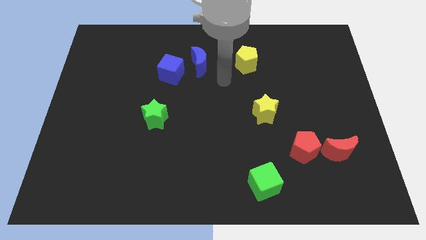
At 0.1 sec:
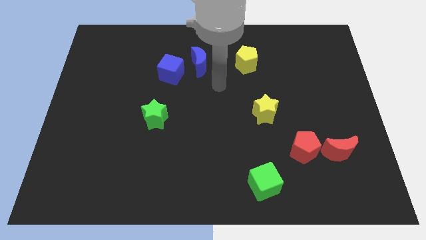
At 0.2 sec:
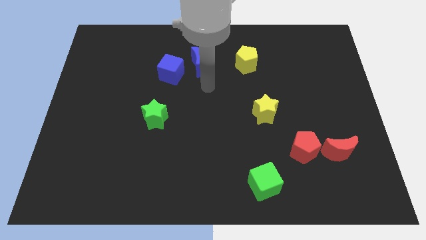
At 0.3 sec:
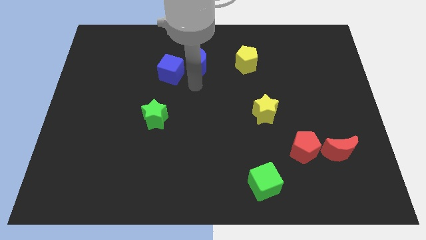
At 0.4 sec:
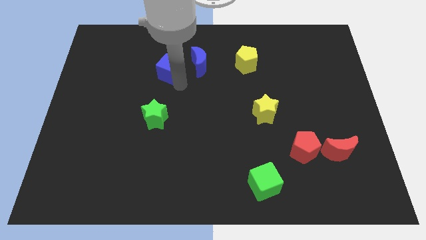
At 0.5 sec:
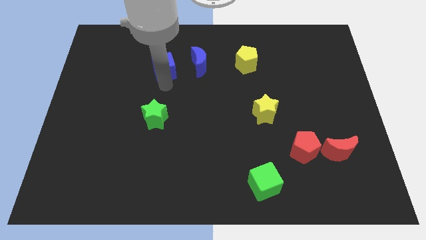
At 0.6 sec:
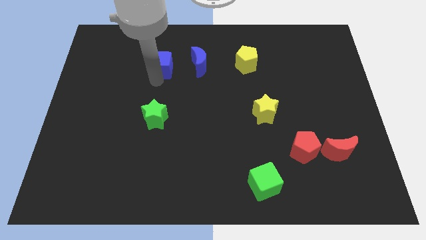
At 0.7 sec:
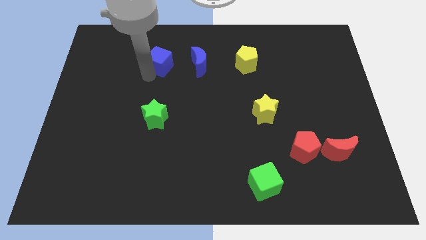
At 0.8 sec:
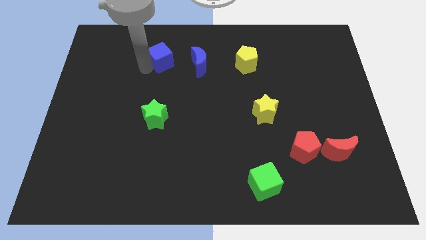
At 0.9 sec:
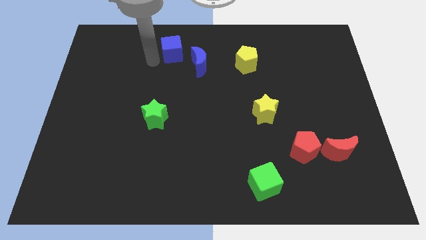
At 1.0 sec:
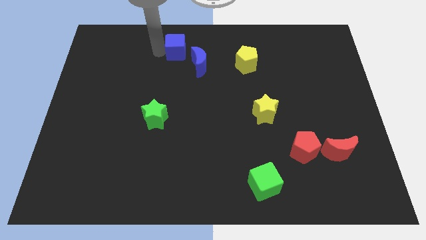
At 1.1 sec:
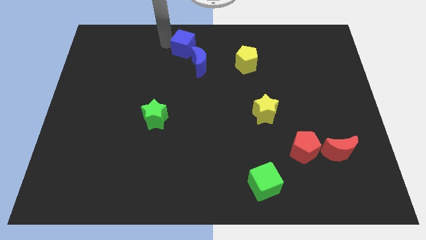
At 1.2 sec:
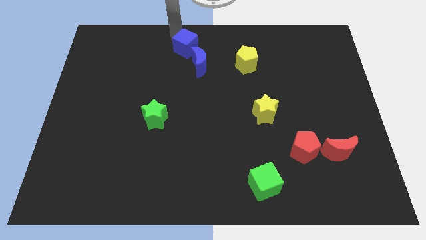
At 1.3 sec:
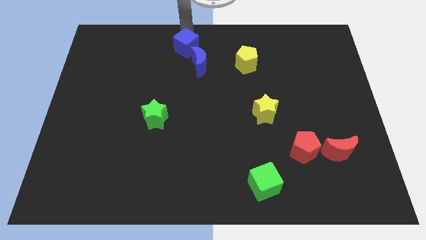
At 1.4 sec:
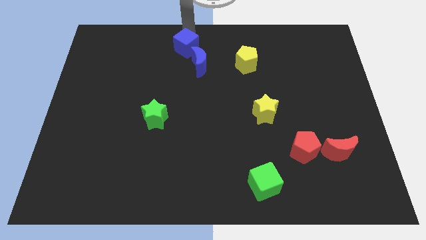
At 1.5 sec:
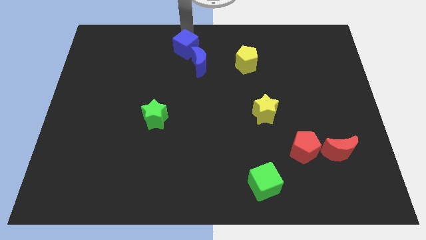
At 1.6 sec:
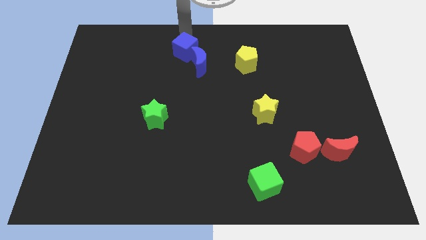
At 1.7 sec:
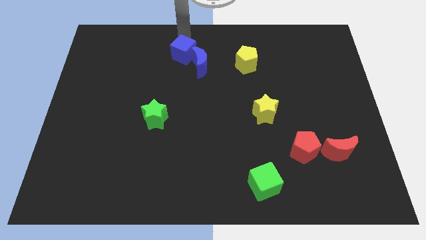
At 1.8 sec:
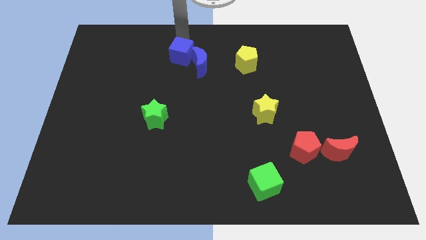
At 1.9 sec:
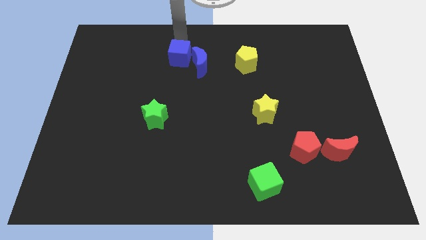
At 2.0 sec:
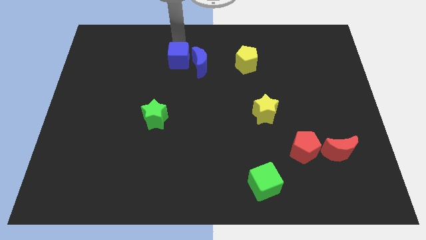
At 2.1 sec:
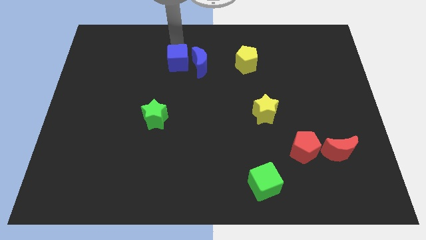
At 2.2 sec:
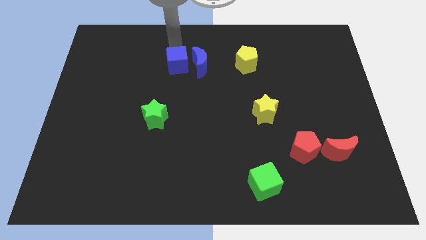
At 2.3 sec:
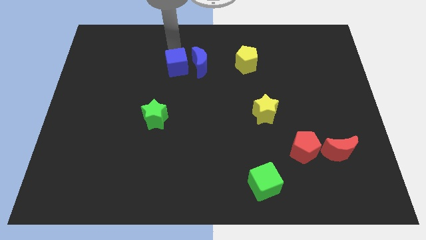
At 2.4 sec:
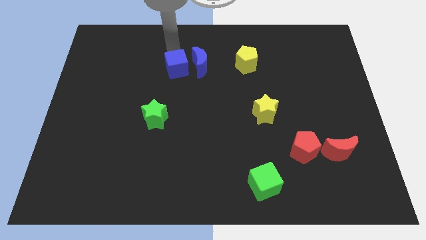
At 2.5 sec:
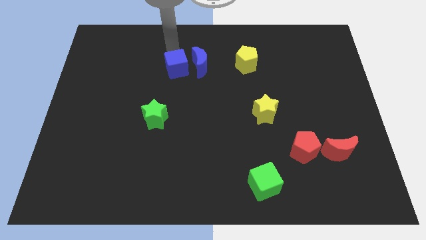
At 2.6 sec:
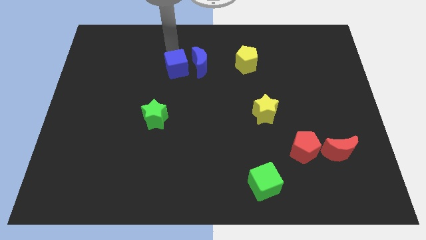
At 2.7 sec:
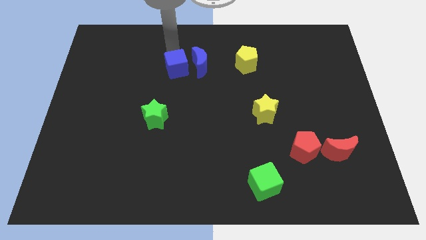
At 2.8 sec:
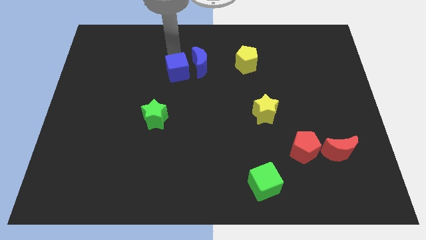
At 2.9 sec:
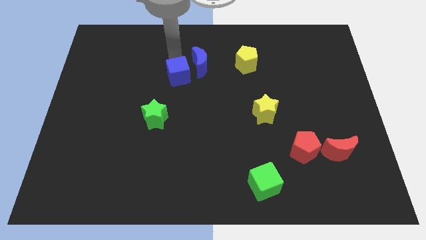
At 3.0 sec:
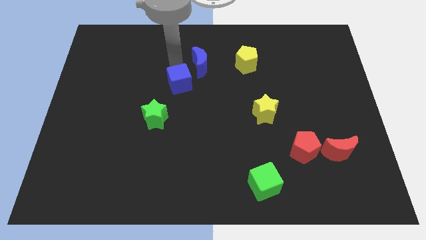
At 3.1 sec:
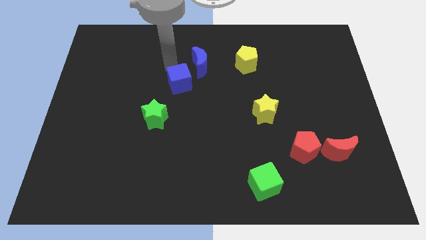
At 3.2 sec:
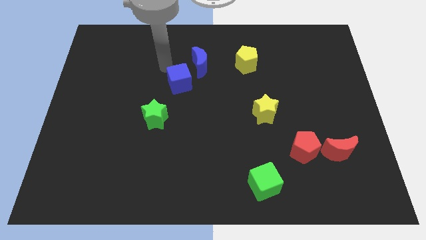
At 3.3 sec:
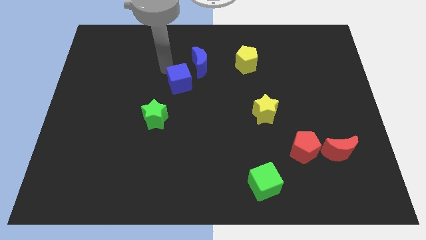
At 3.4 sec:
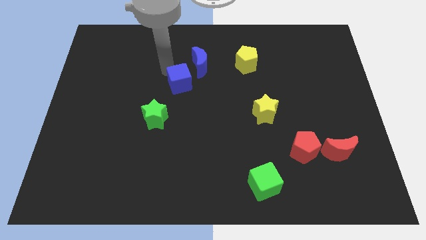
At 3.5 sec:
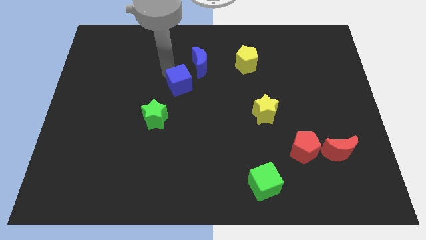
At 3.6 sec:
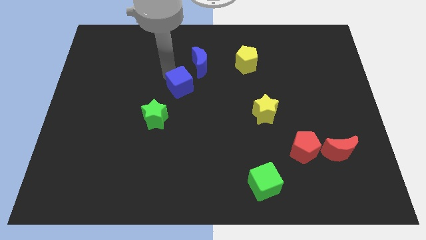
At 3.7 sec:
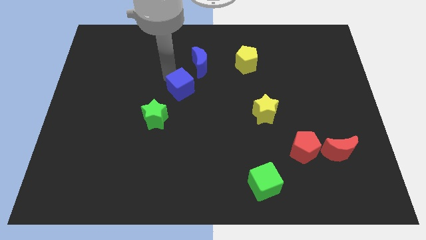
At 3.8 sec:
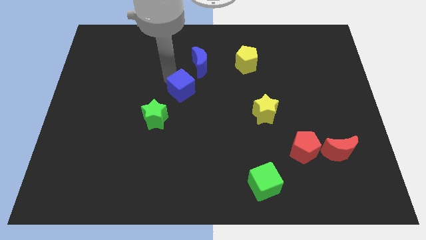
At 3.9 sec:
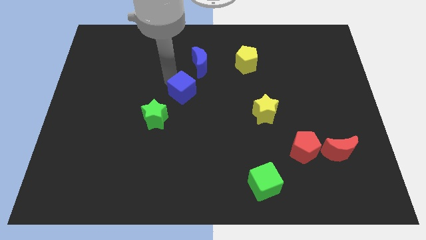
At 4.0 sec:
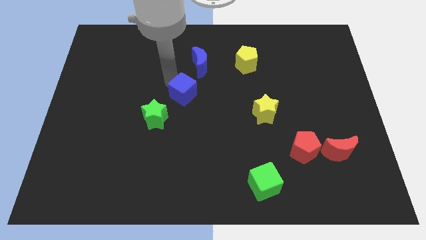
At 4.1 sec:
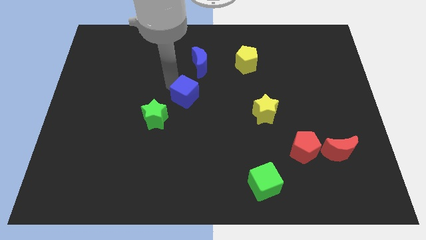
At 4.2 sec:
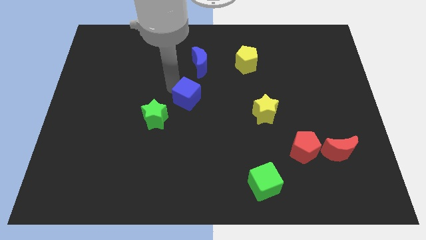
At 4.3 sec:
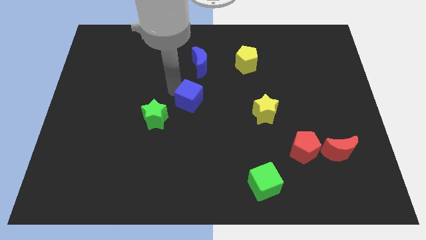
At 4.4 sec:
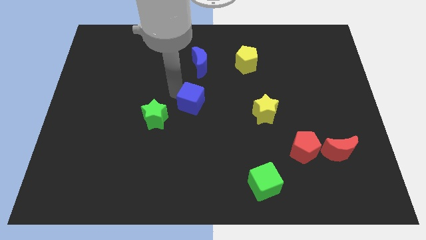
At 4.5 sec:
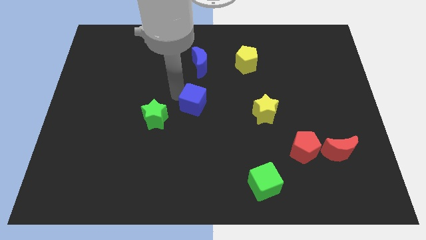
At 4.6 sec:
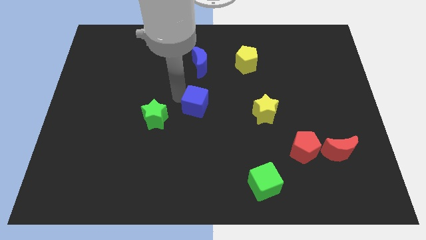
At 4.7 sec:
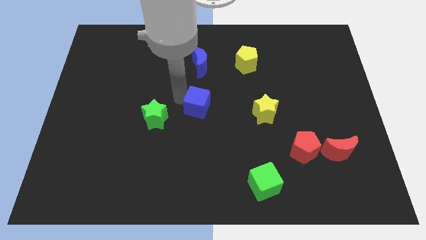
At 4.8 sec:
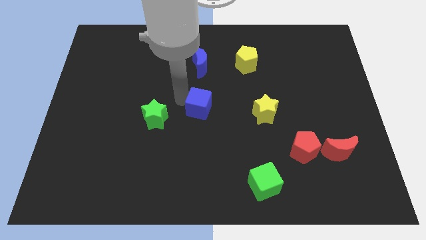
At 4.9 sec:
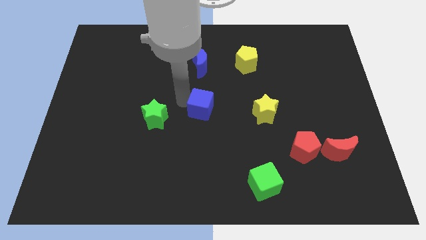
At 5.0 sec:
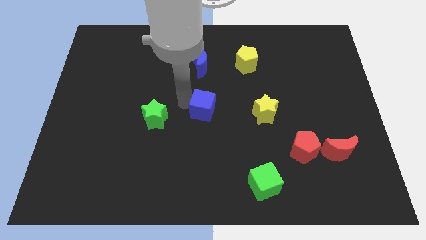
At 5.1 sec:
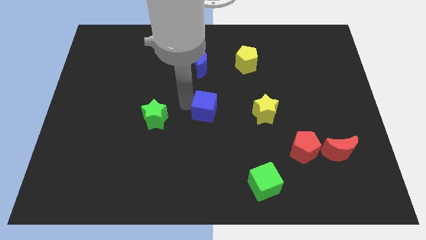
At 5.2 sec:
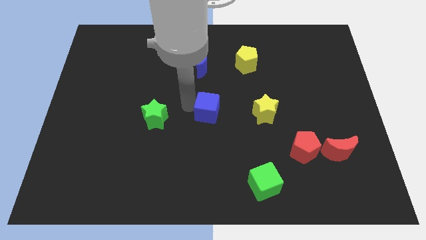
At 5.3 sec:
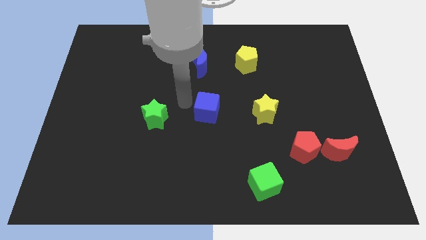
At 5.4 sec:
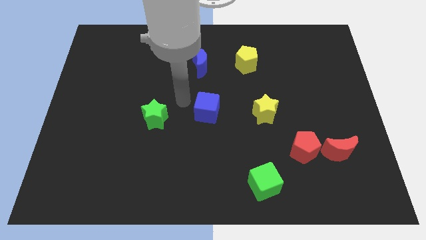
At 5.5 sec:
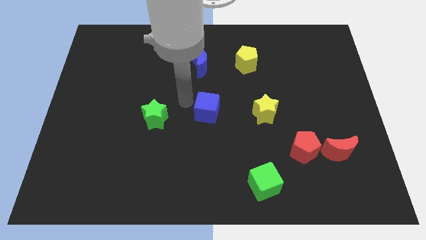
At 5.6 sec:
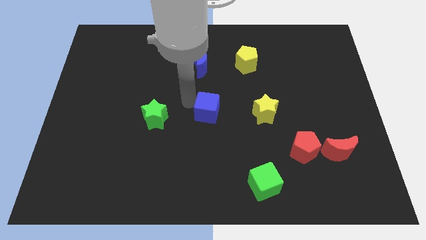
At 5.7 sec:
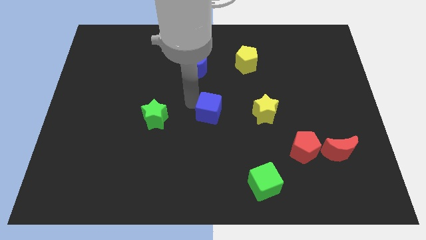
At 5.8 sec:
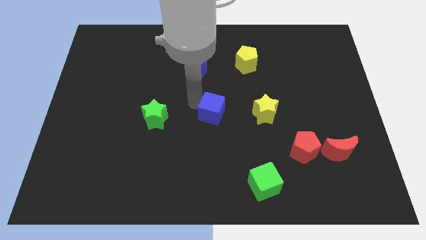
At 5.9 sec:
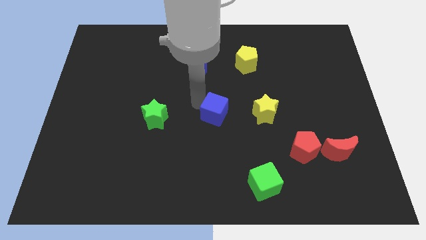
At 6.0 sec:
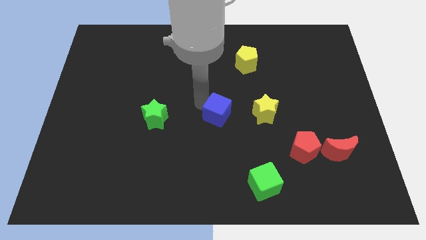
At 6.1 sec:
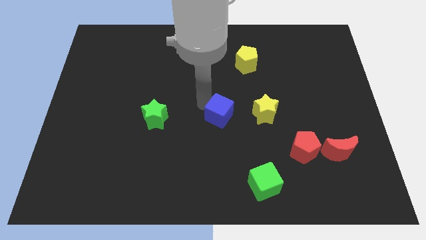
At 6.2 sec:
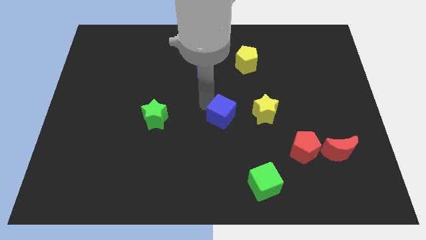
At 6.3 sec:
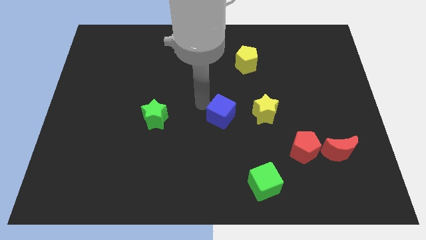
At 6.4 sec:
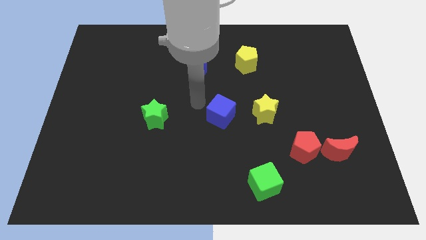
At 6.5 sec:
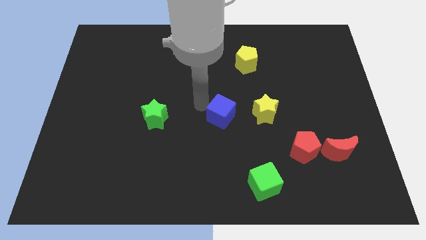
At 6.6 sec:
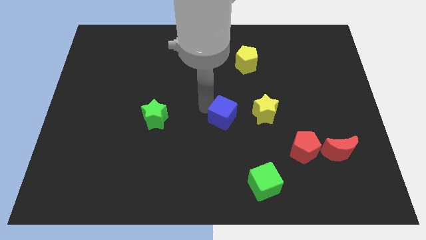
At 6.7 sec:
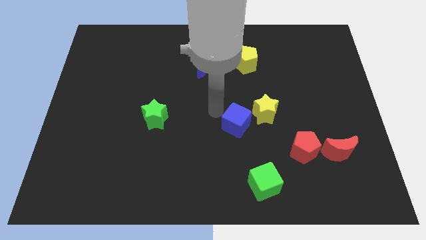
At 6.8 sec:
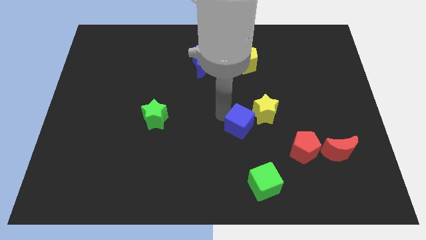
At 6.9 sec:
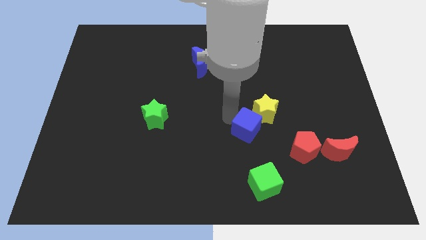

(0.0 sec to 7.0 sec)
move the blue cube to the top side of the green cube
